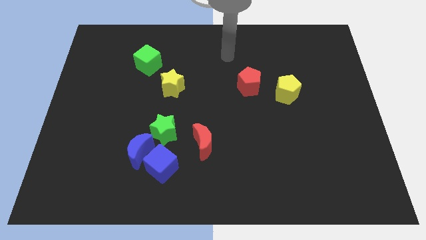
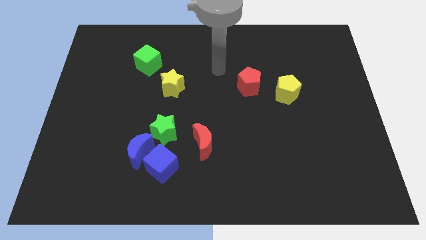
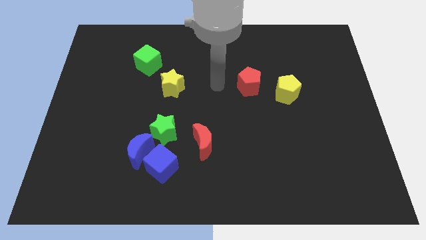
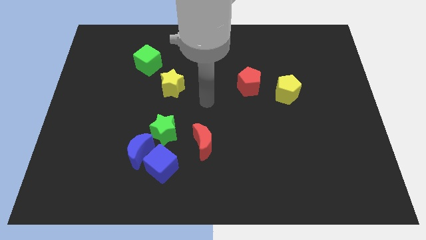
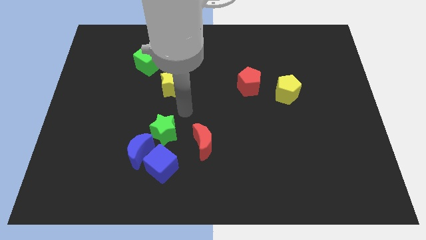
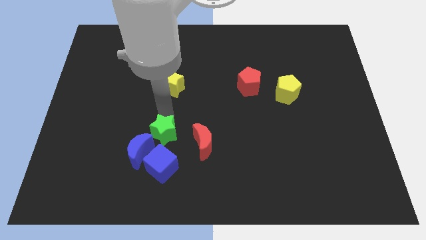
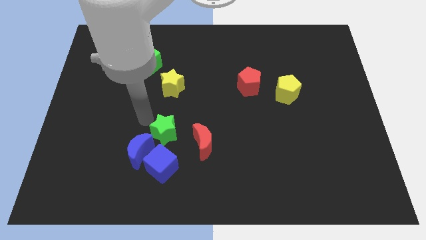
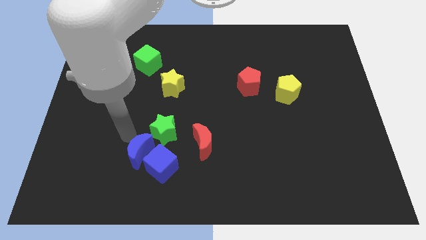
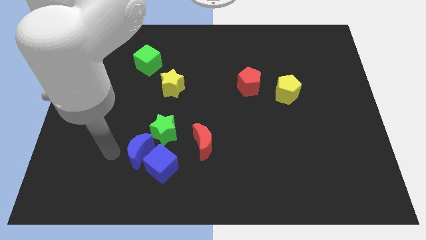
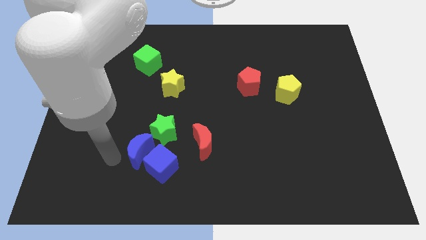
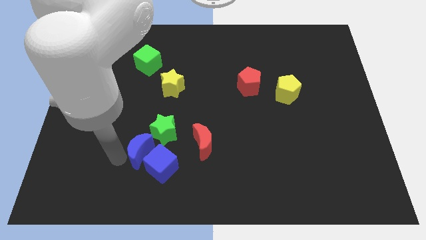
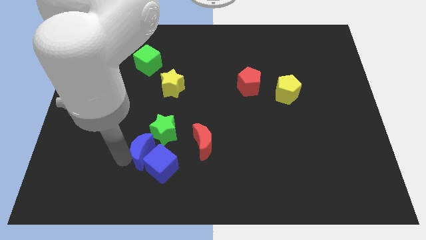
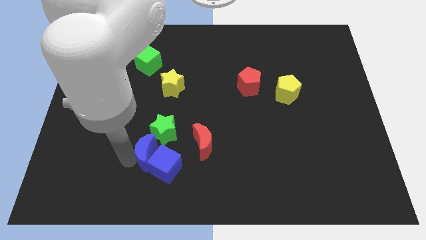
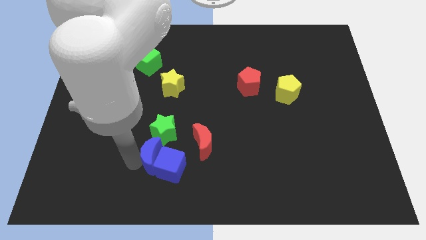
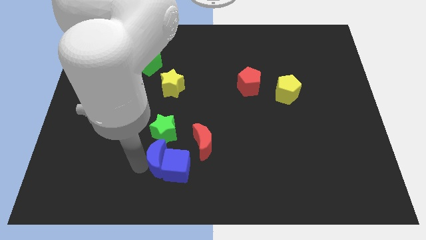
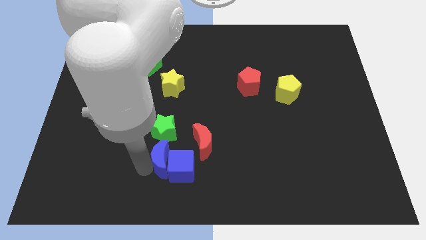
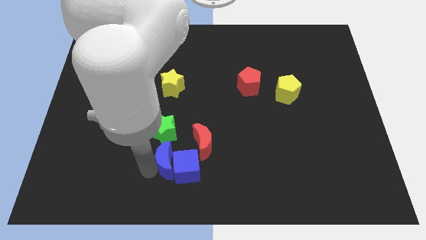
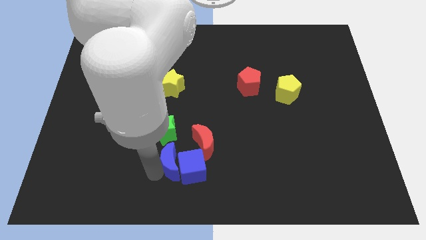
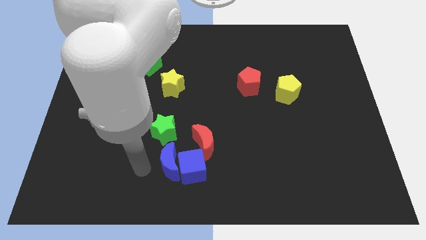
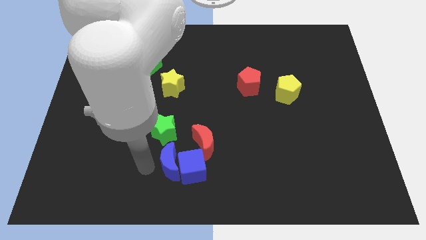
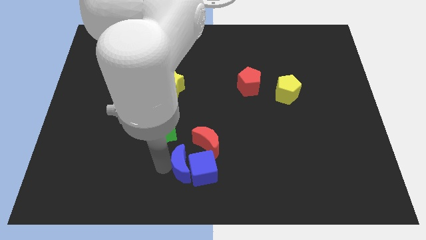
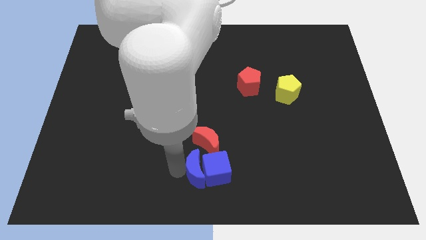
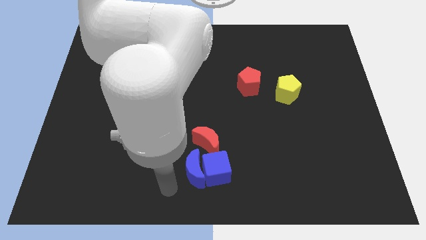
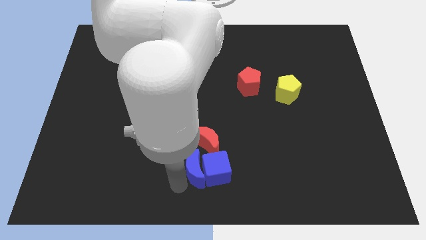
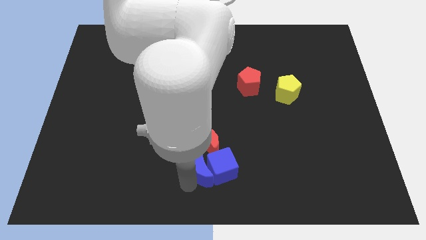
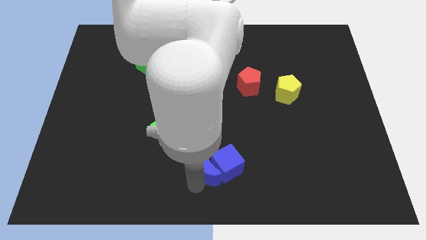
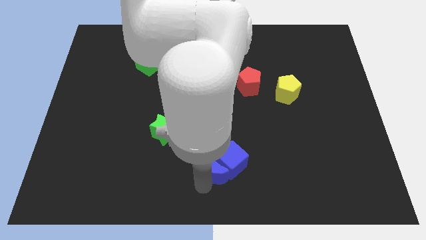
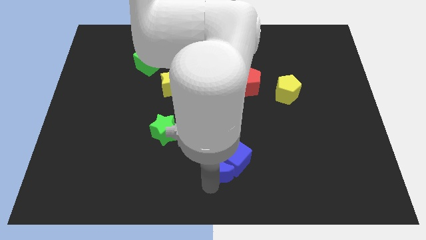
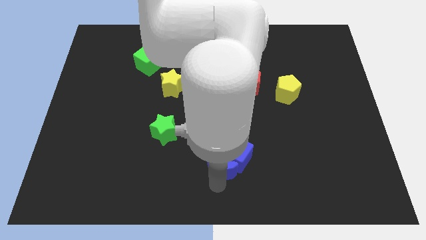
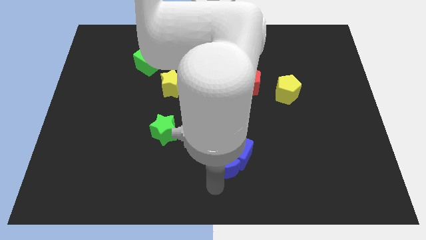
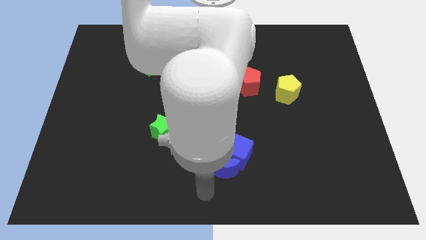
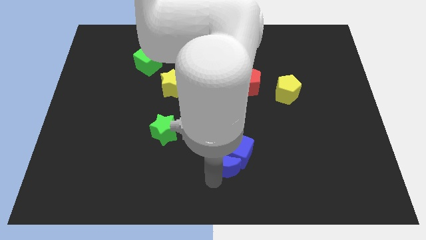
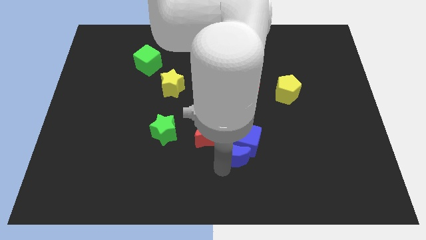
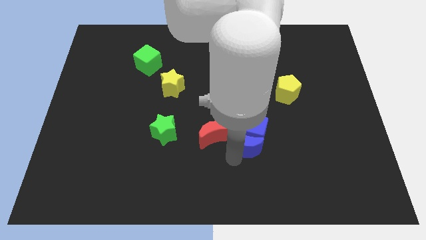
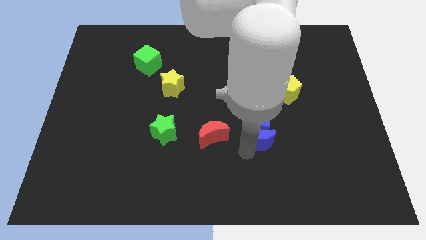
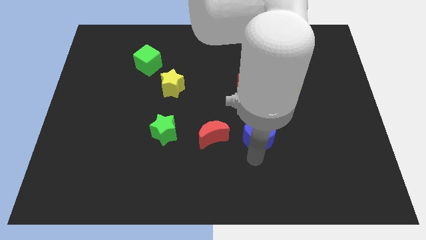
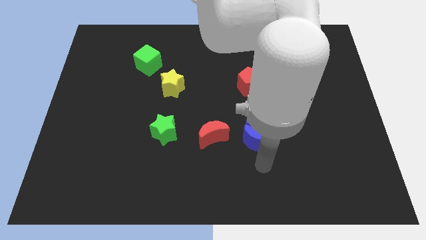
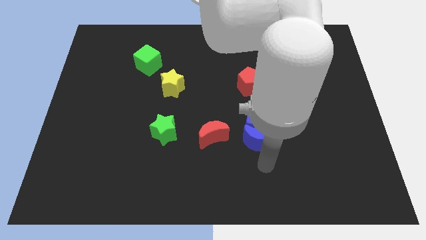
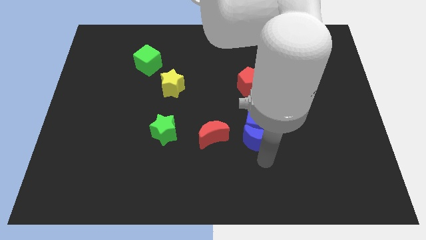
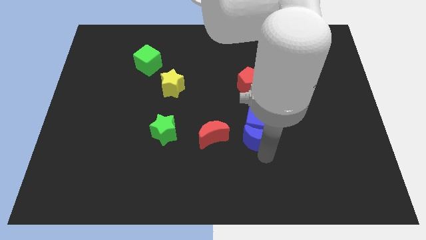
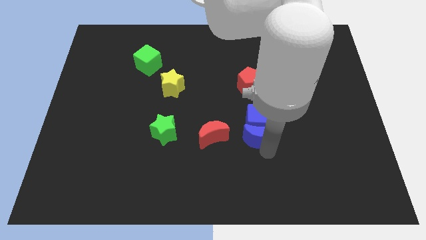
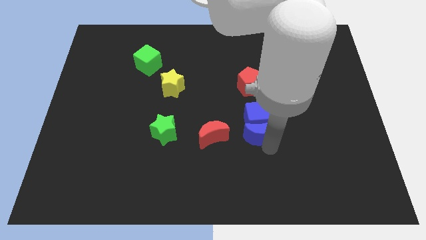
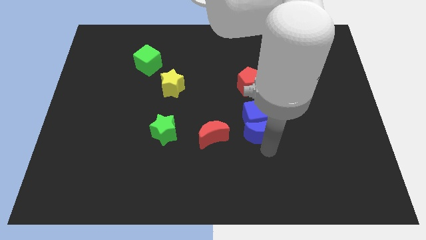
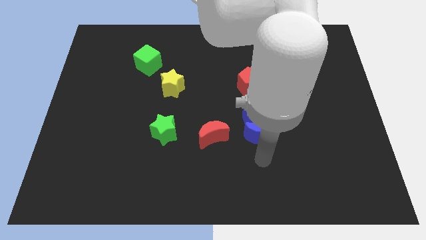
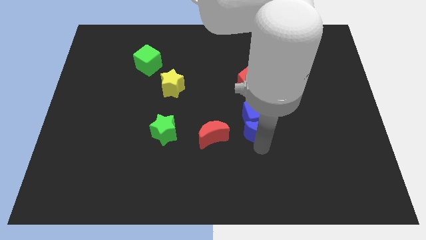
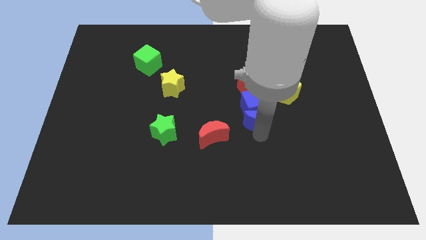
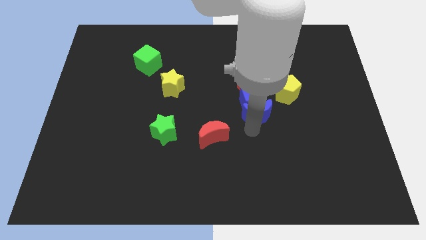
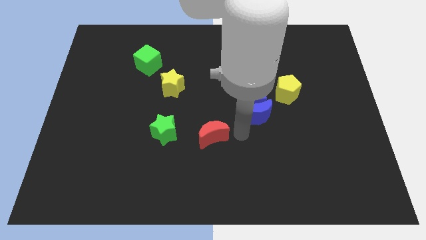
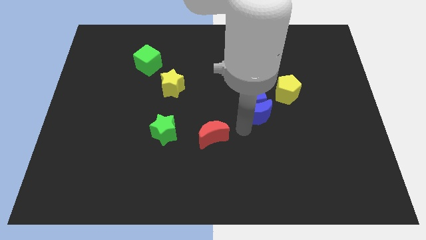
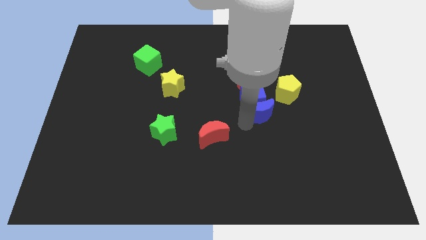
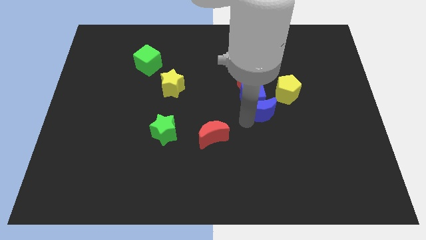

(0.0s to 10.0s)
push the blue moon diagonally down and to the right of the red pentagon

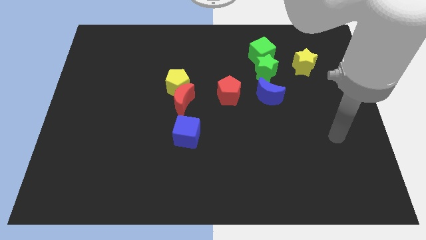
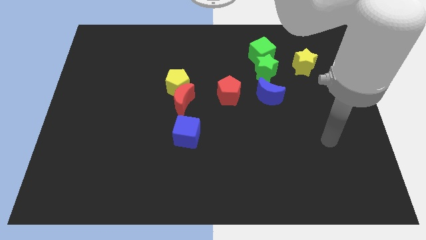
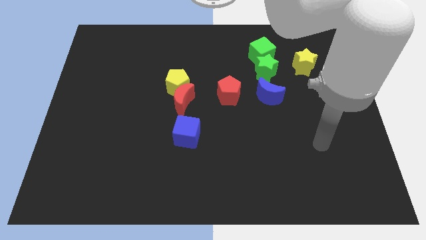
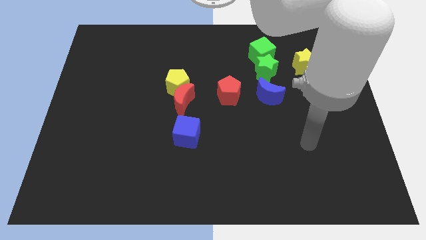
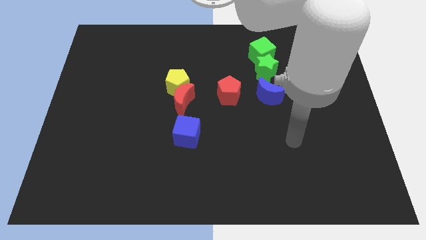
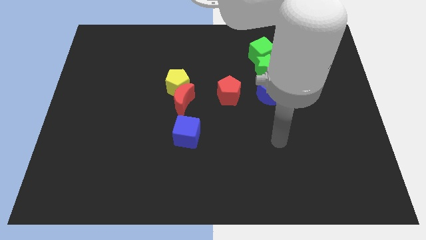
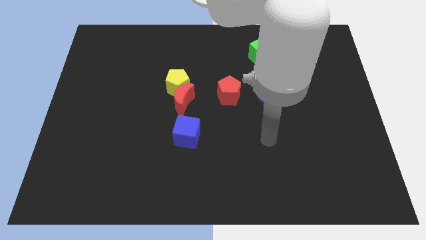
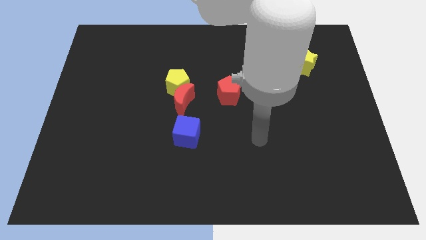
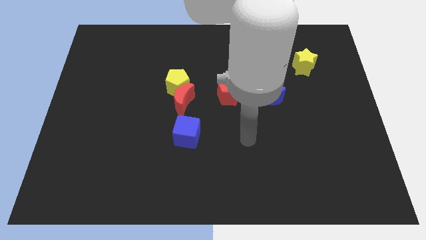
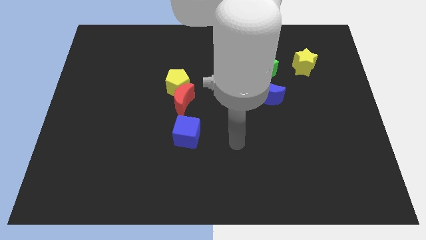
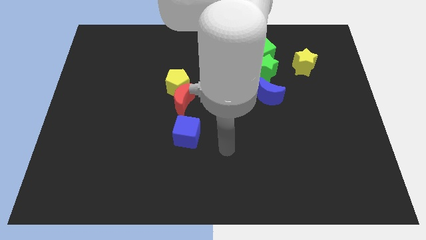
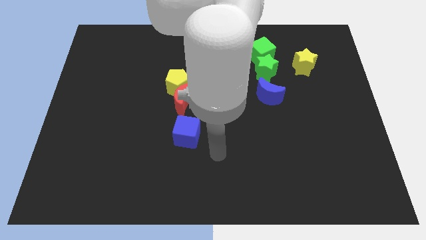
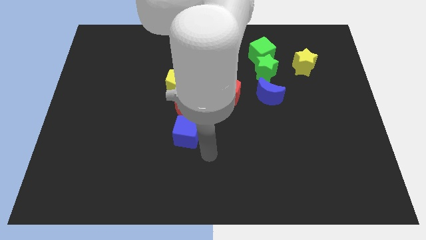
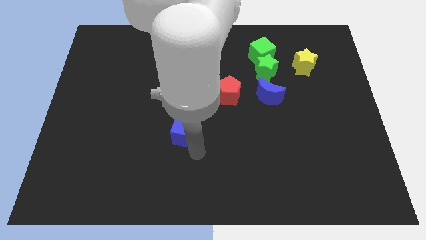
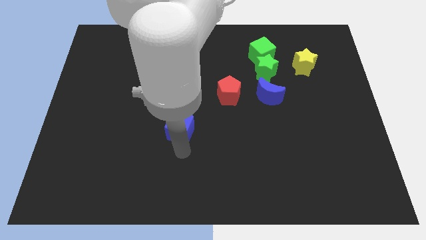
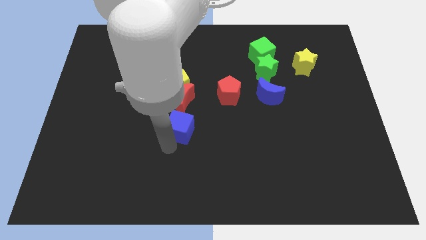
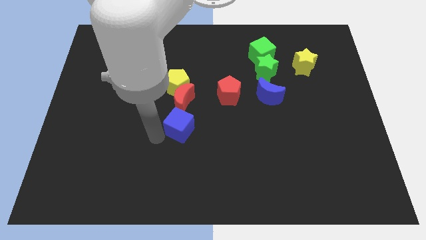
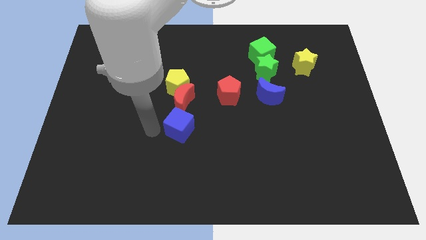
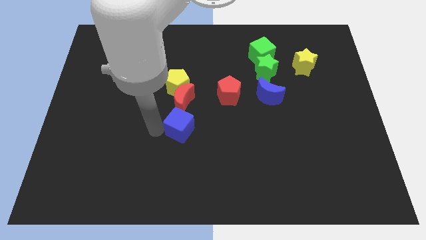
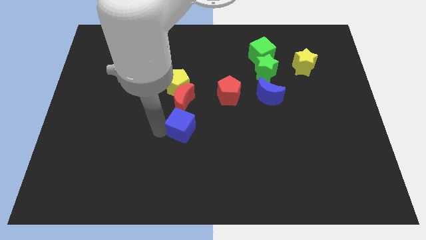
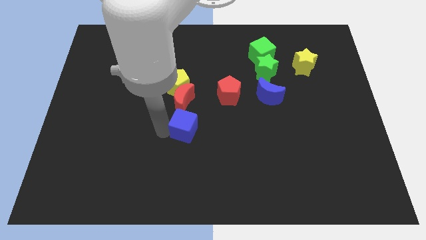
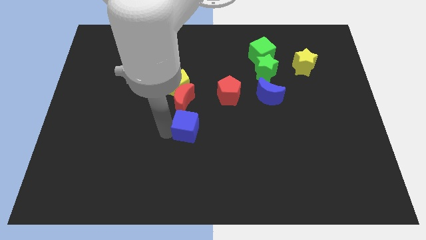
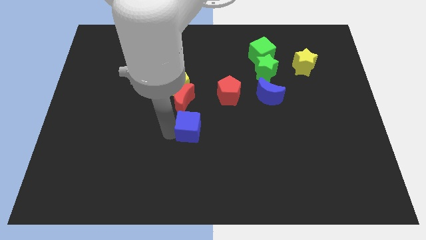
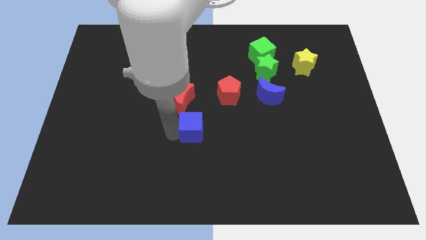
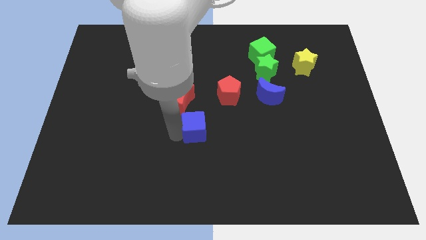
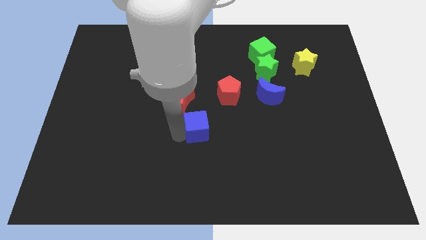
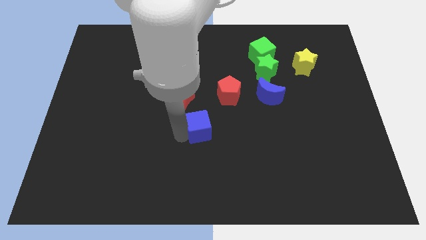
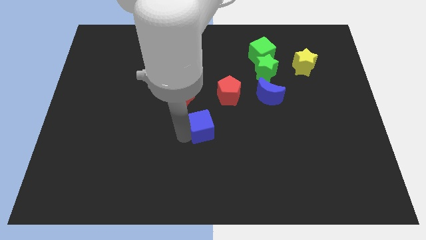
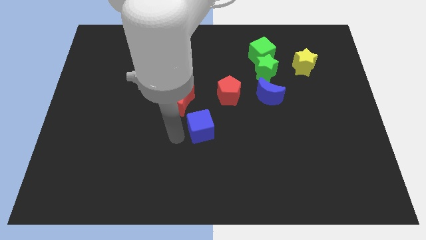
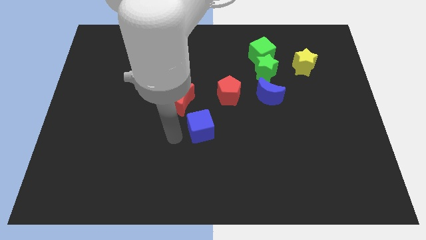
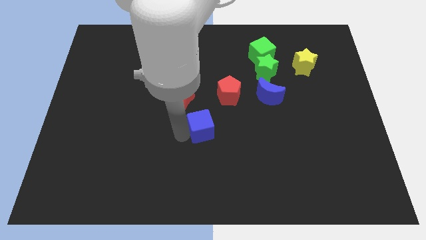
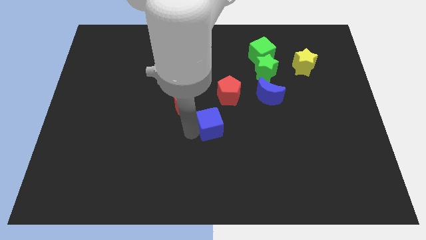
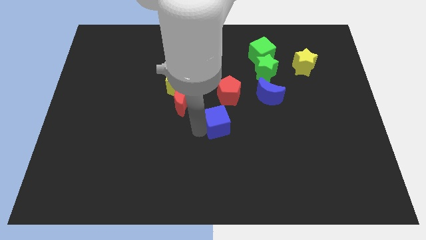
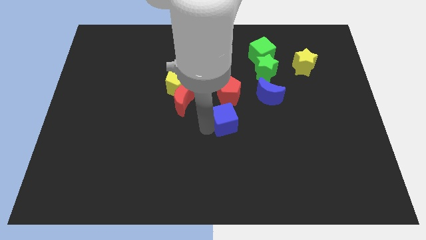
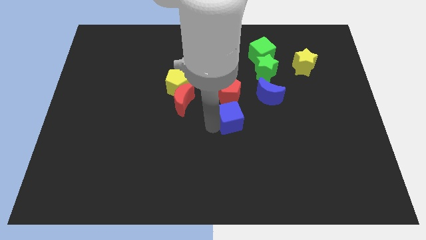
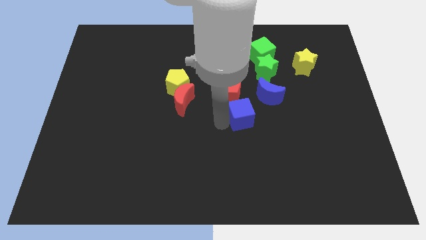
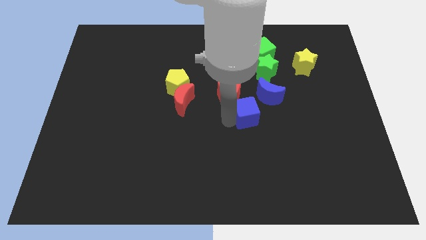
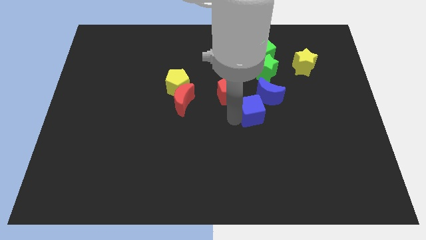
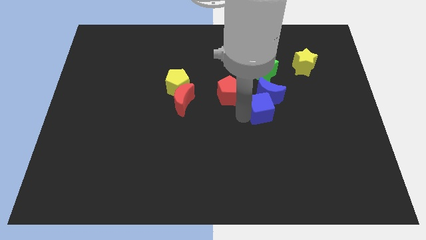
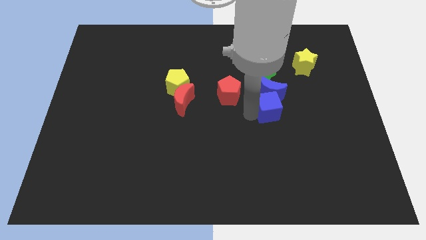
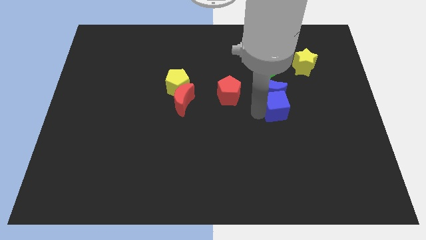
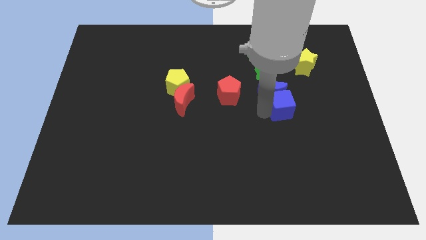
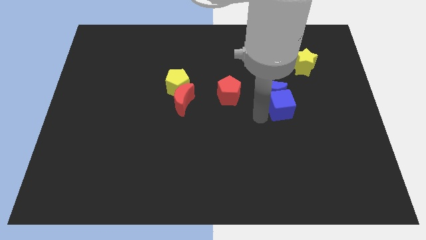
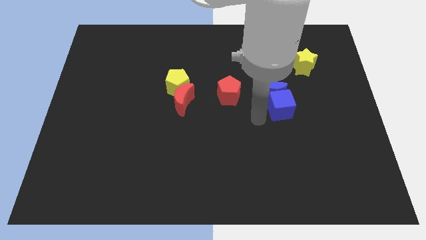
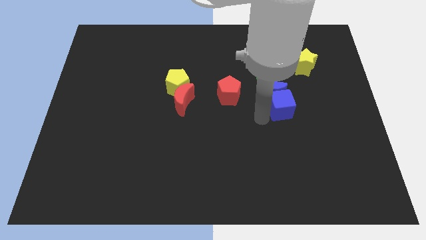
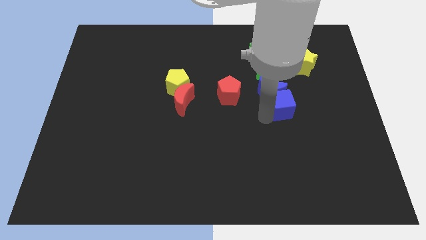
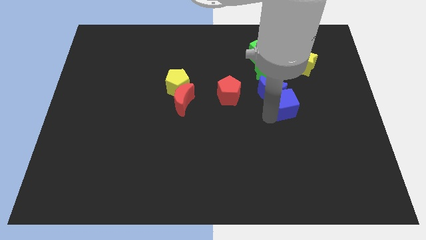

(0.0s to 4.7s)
move the blue cube right of the blue moon
